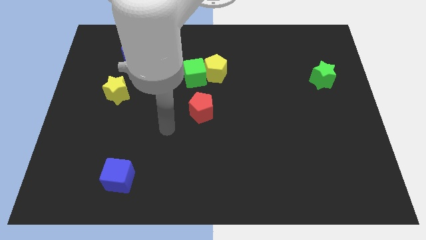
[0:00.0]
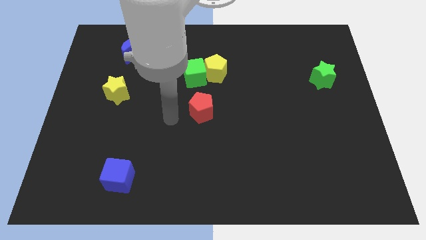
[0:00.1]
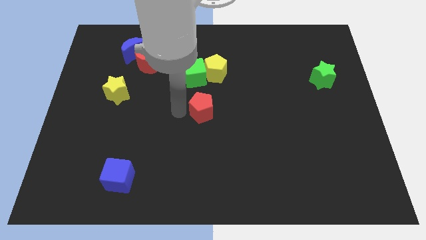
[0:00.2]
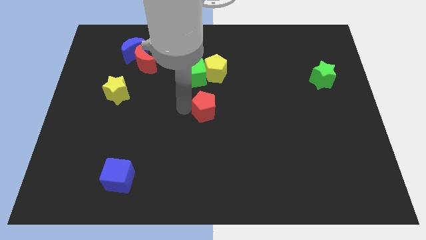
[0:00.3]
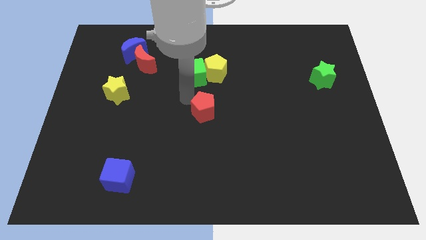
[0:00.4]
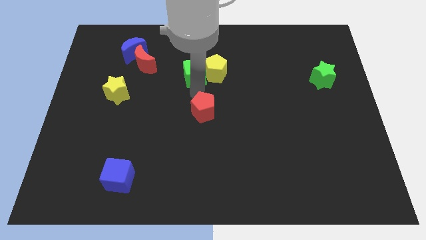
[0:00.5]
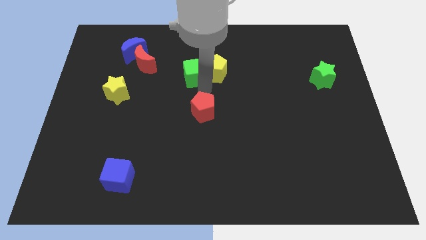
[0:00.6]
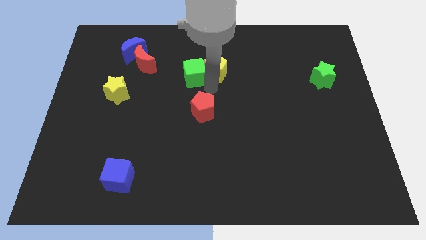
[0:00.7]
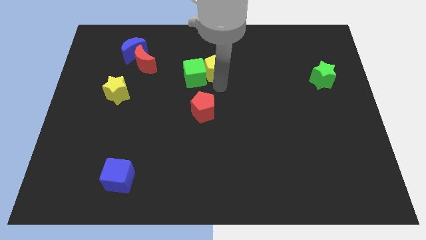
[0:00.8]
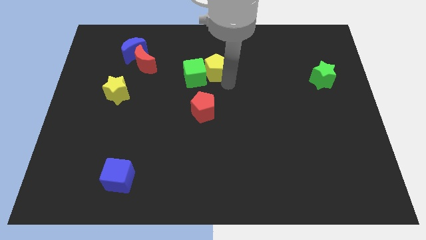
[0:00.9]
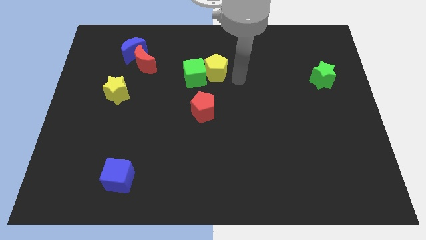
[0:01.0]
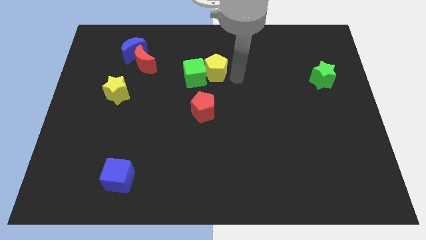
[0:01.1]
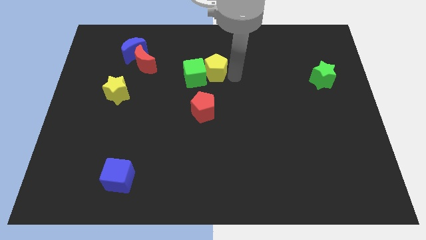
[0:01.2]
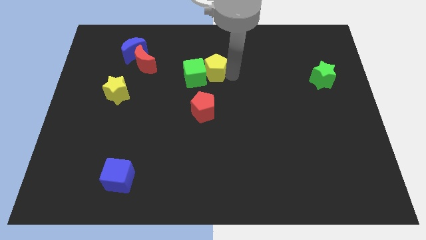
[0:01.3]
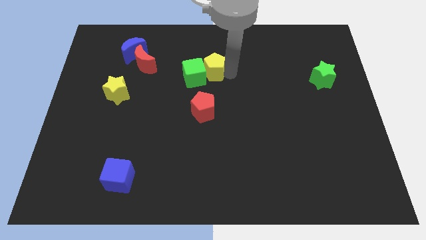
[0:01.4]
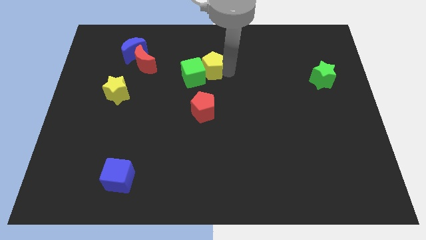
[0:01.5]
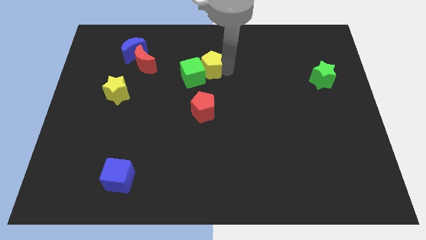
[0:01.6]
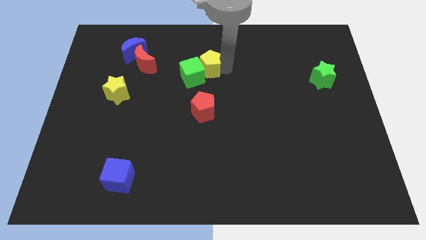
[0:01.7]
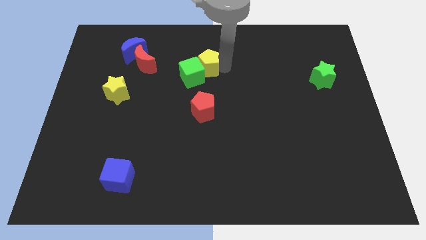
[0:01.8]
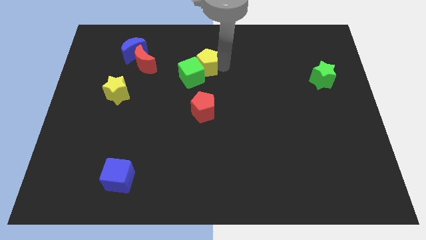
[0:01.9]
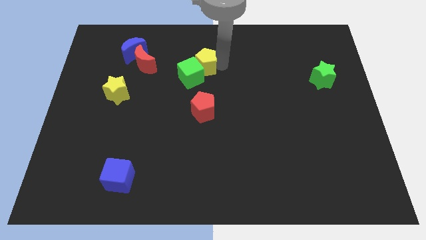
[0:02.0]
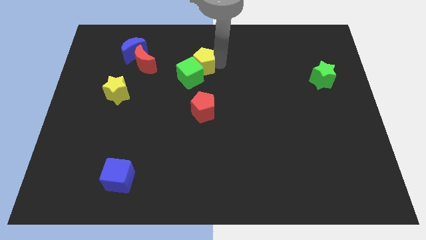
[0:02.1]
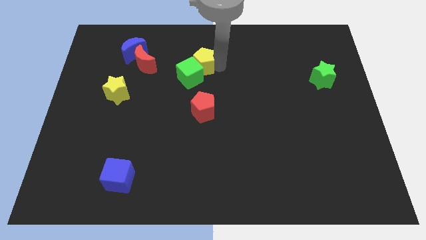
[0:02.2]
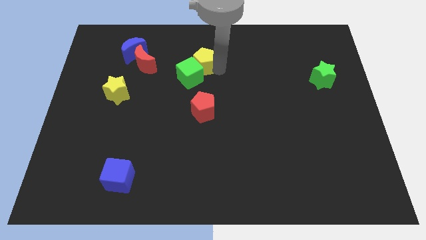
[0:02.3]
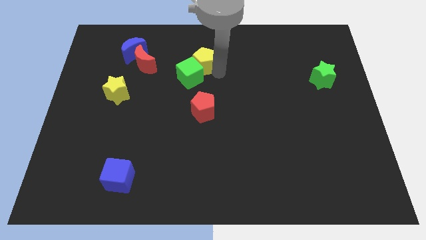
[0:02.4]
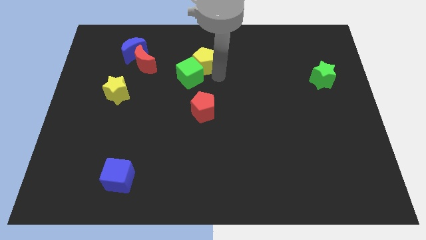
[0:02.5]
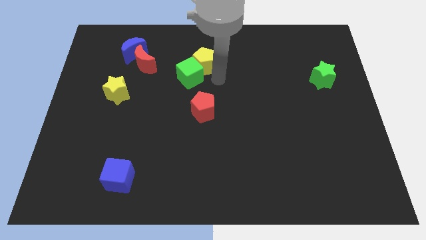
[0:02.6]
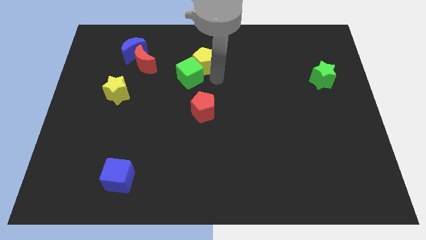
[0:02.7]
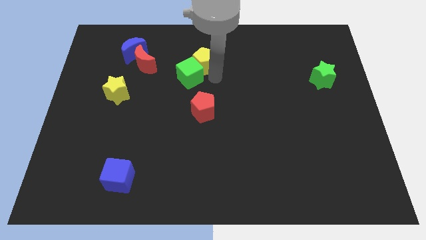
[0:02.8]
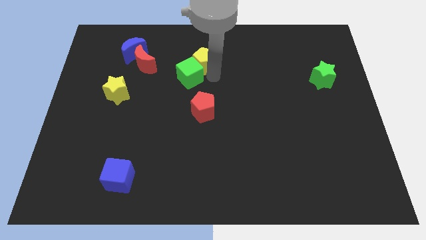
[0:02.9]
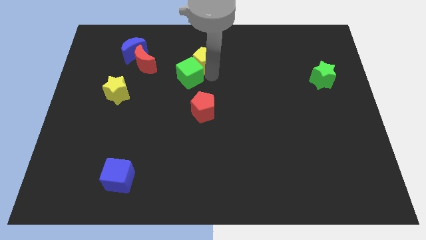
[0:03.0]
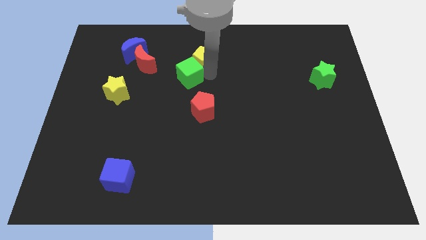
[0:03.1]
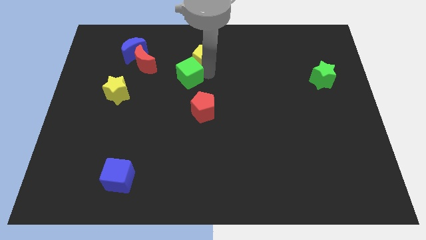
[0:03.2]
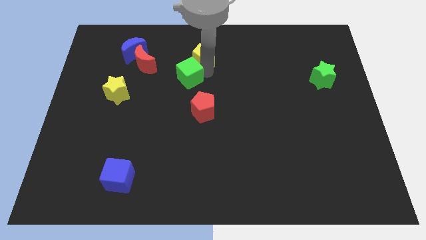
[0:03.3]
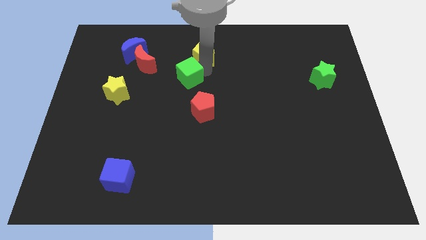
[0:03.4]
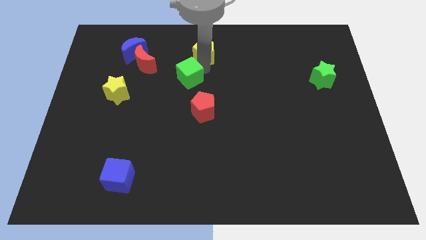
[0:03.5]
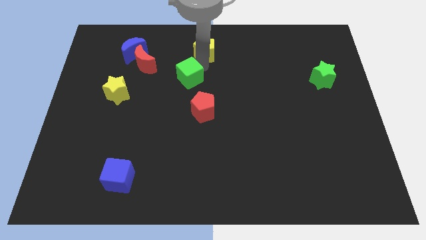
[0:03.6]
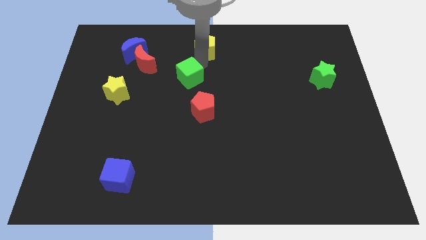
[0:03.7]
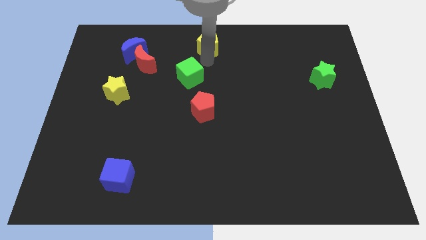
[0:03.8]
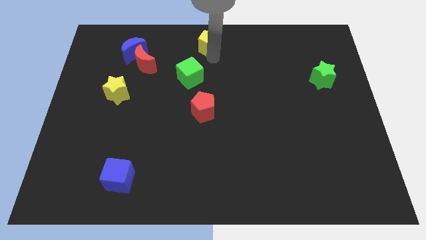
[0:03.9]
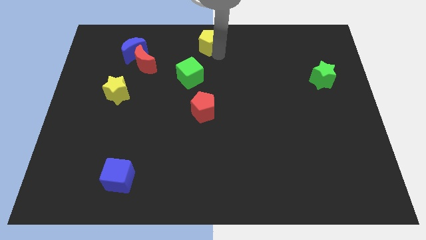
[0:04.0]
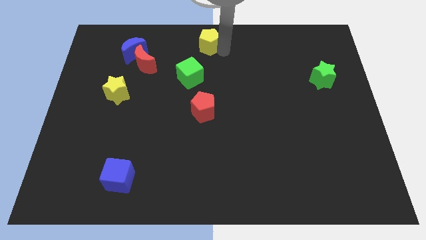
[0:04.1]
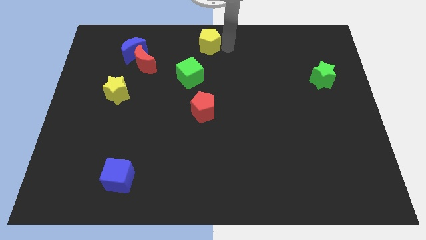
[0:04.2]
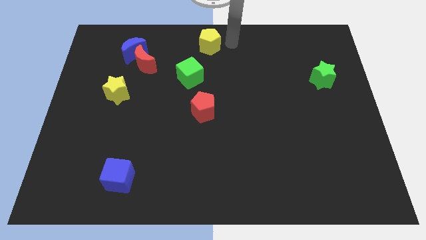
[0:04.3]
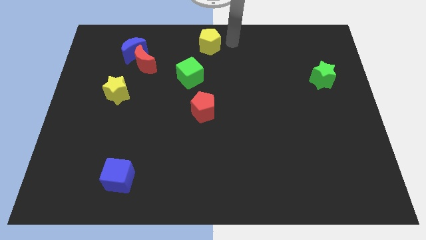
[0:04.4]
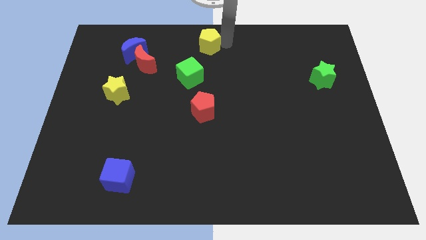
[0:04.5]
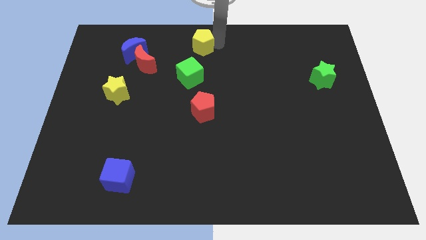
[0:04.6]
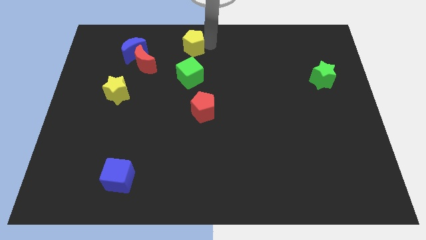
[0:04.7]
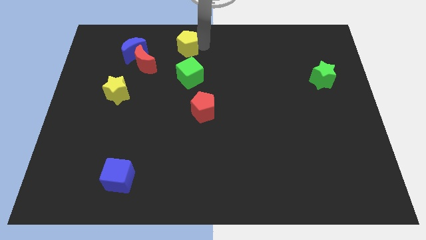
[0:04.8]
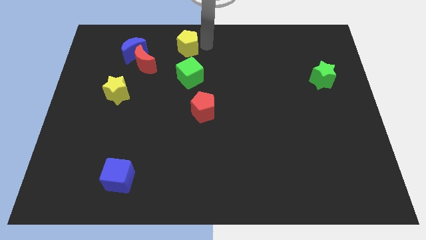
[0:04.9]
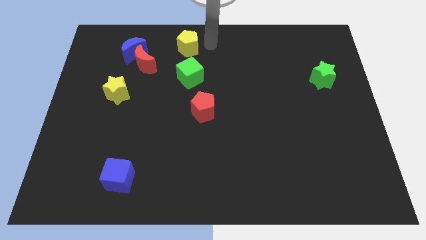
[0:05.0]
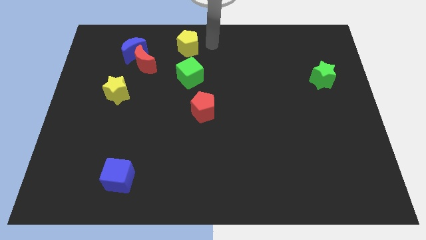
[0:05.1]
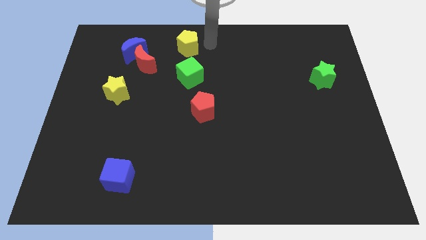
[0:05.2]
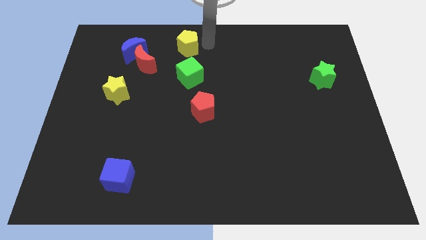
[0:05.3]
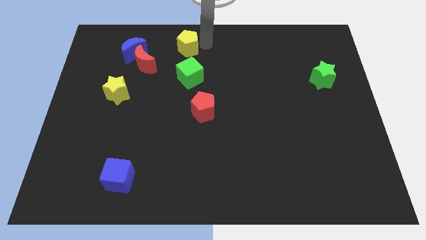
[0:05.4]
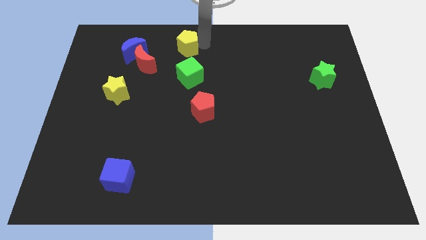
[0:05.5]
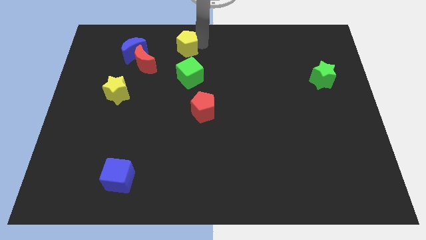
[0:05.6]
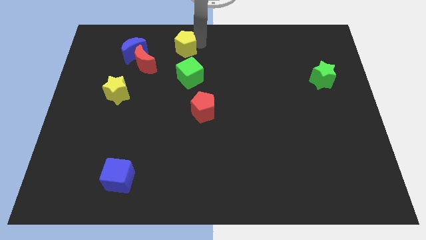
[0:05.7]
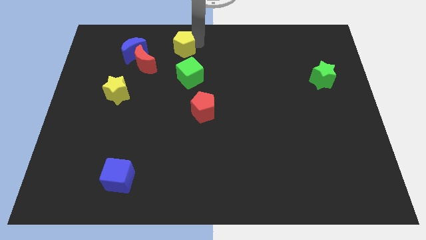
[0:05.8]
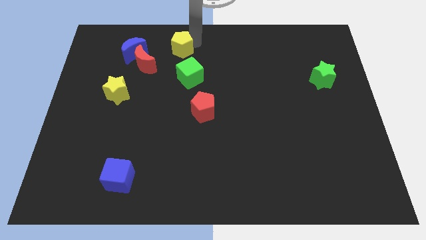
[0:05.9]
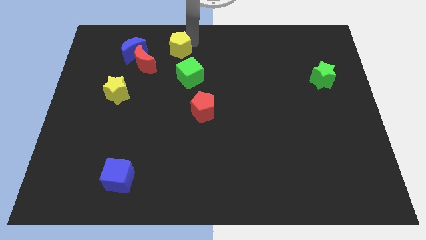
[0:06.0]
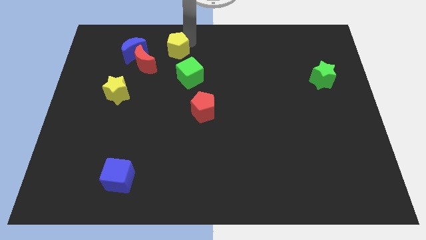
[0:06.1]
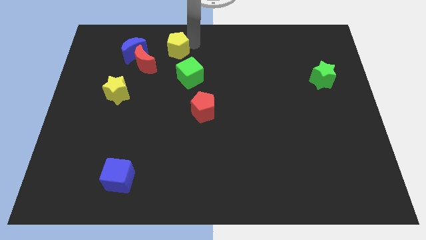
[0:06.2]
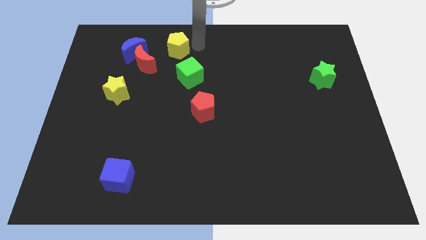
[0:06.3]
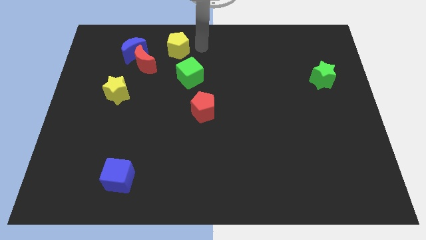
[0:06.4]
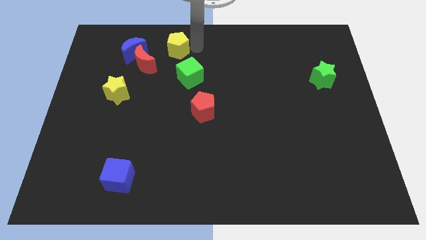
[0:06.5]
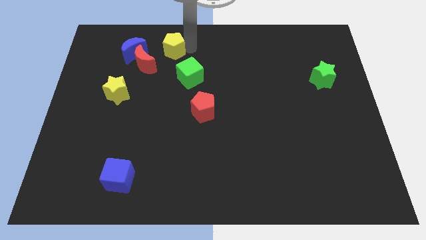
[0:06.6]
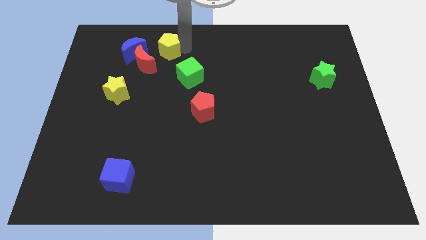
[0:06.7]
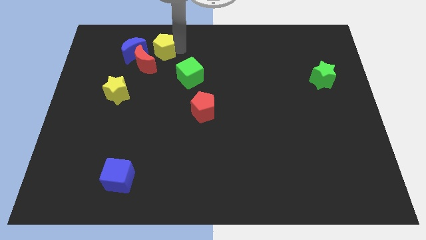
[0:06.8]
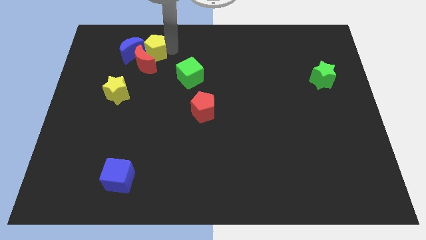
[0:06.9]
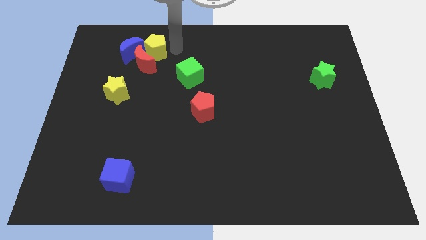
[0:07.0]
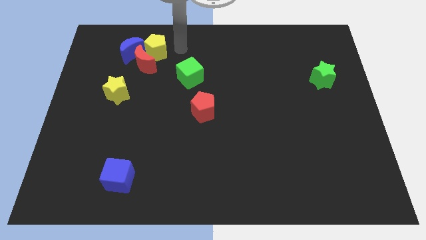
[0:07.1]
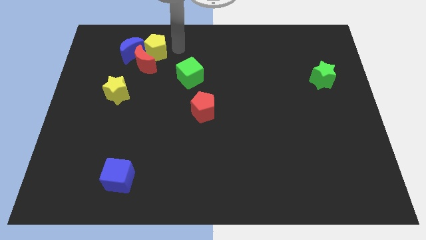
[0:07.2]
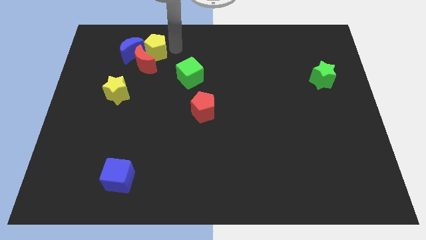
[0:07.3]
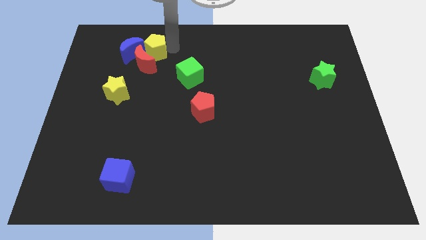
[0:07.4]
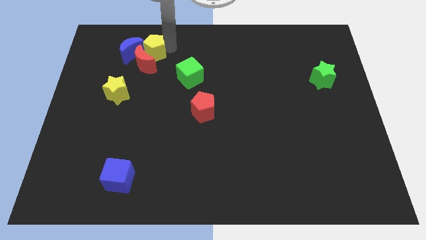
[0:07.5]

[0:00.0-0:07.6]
push the yellow pentagon next to the blue moon
